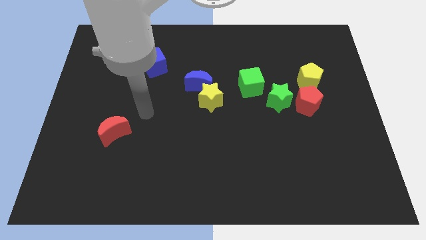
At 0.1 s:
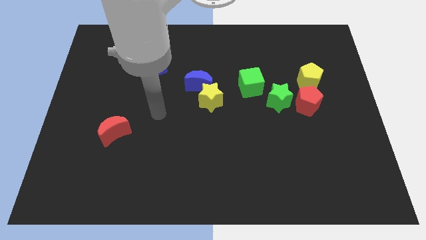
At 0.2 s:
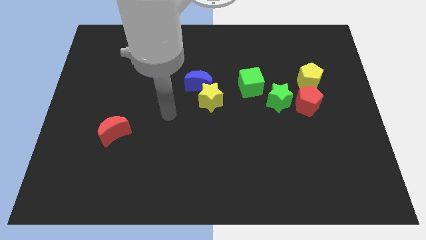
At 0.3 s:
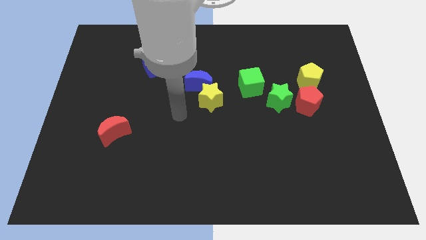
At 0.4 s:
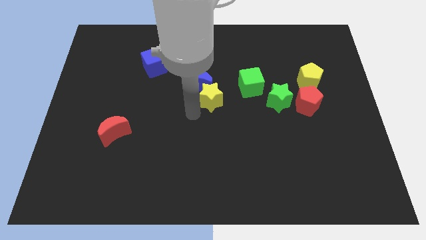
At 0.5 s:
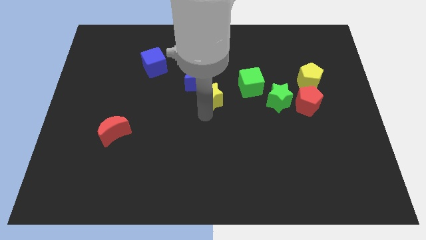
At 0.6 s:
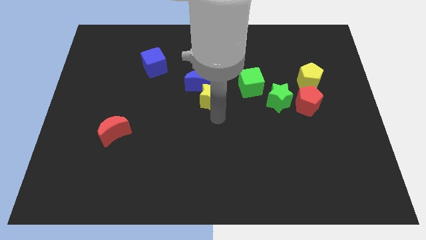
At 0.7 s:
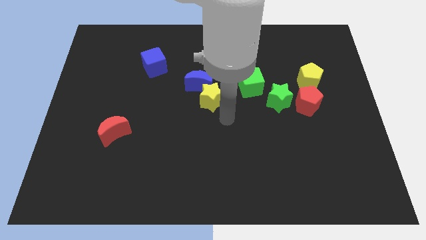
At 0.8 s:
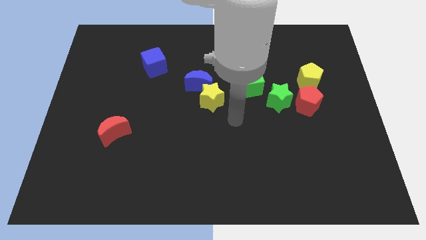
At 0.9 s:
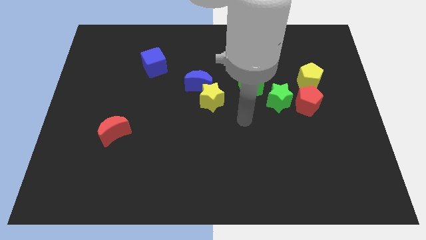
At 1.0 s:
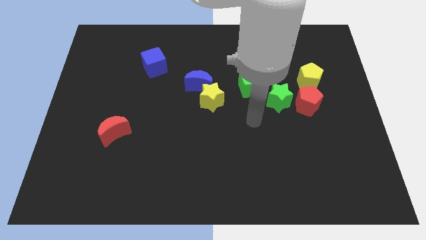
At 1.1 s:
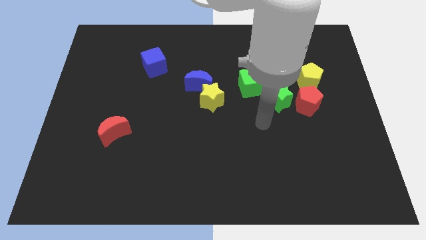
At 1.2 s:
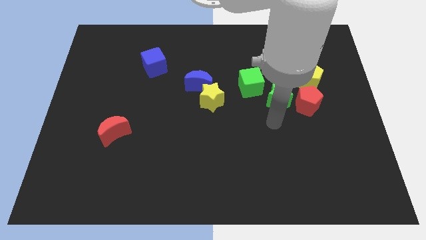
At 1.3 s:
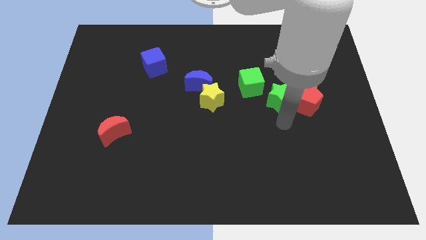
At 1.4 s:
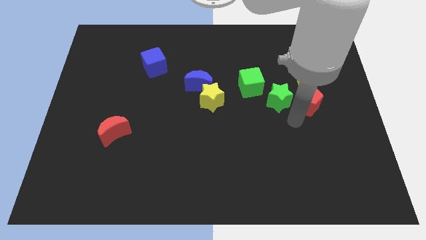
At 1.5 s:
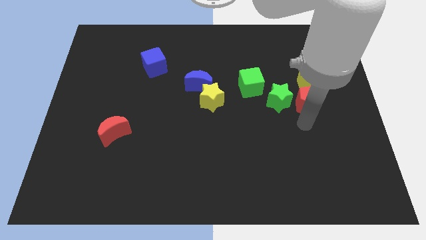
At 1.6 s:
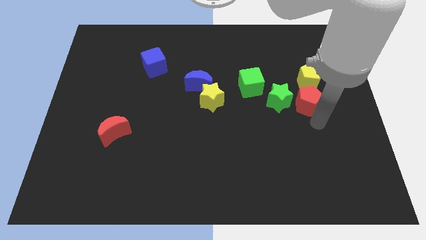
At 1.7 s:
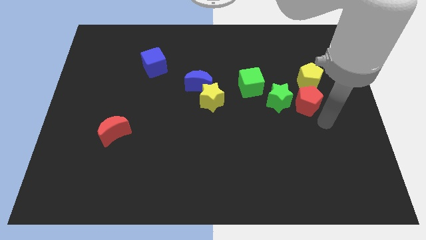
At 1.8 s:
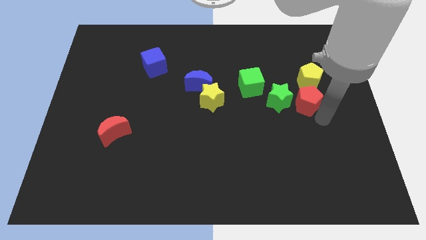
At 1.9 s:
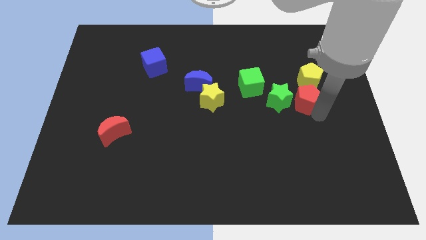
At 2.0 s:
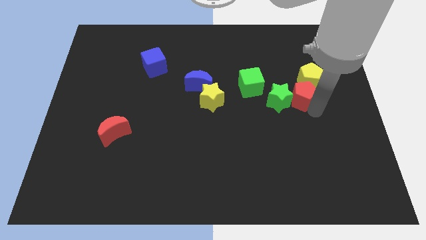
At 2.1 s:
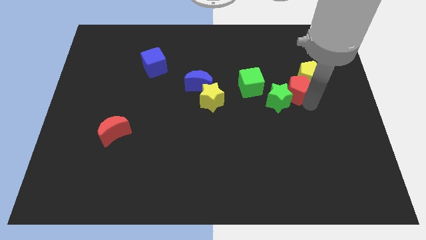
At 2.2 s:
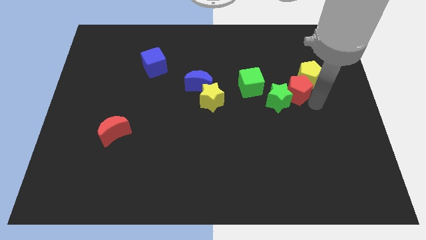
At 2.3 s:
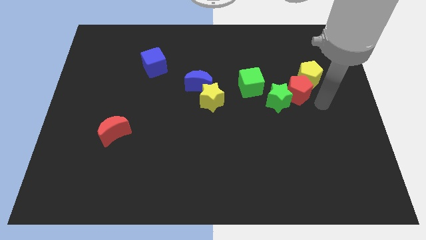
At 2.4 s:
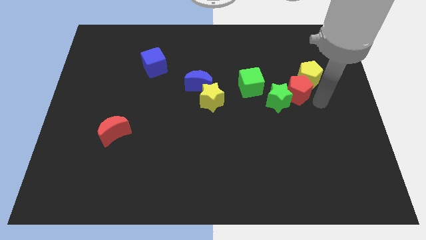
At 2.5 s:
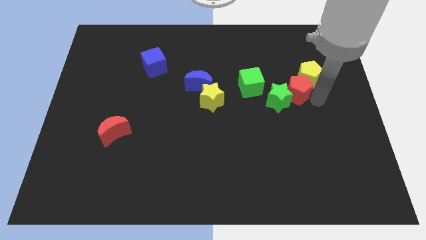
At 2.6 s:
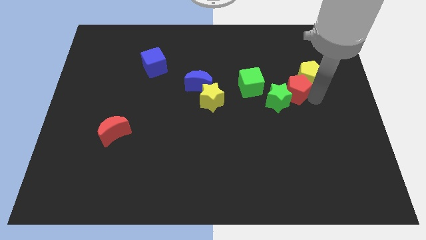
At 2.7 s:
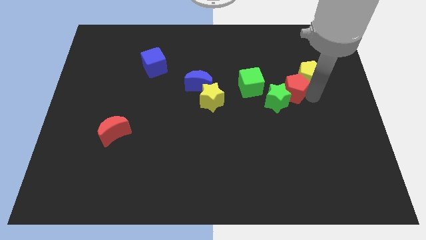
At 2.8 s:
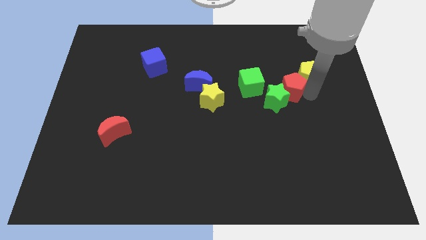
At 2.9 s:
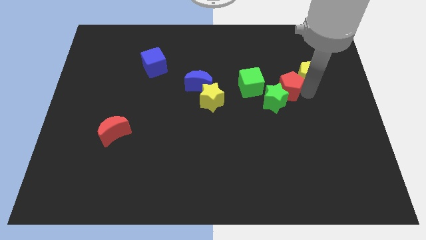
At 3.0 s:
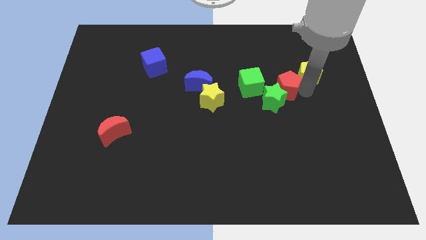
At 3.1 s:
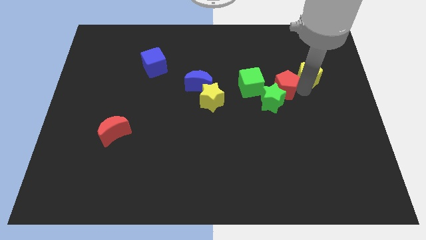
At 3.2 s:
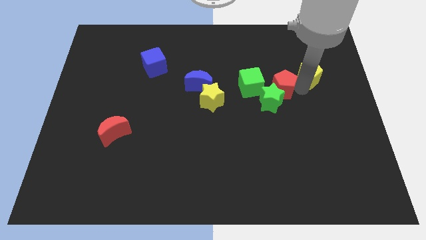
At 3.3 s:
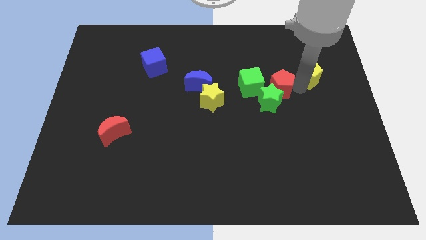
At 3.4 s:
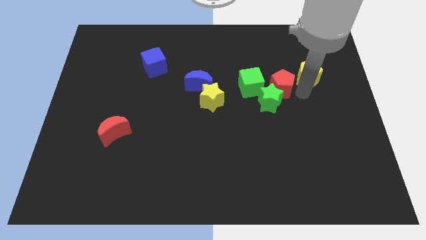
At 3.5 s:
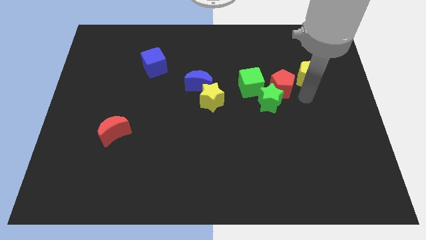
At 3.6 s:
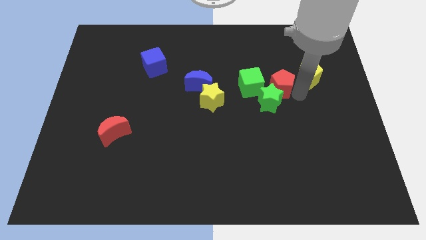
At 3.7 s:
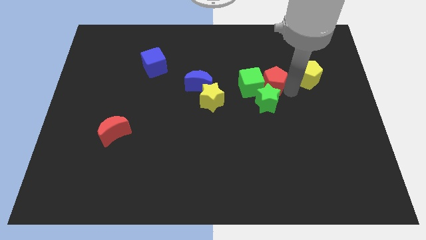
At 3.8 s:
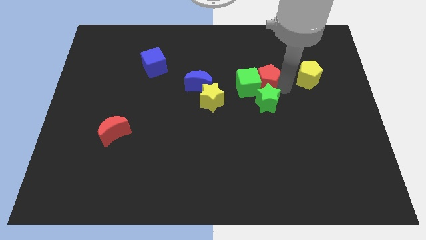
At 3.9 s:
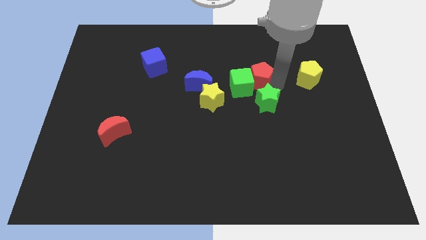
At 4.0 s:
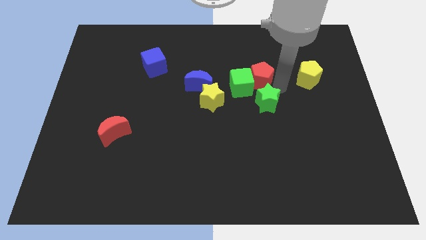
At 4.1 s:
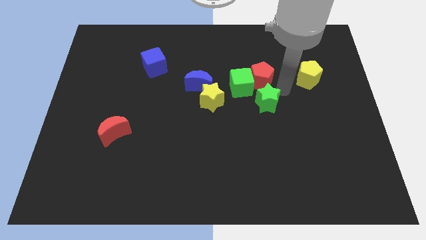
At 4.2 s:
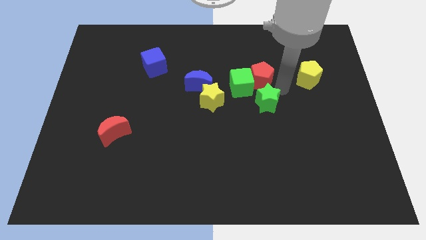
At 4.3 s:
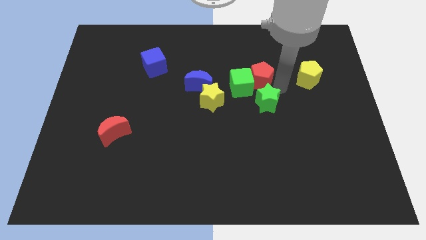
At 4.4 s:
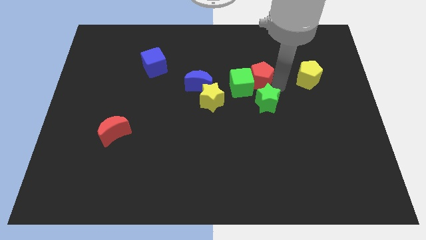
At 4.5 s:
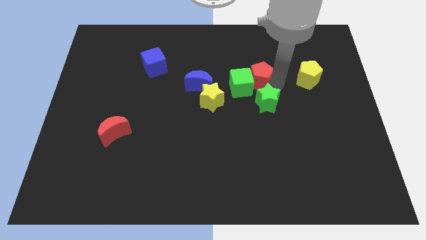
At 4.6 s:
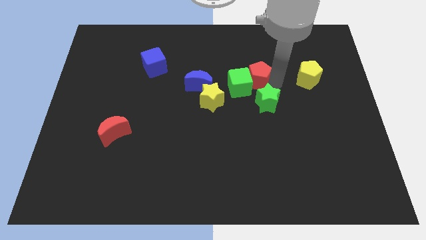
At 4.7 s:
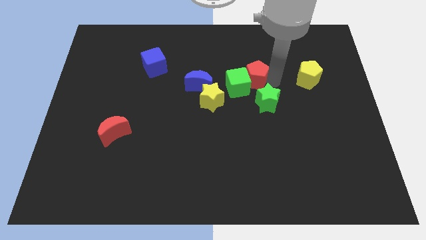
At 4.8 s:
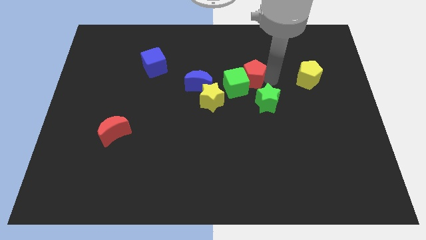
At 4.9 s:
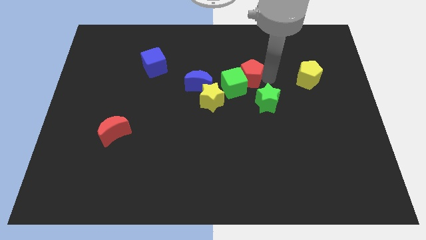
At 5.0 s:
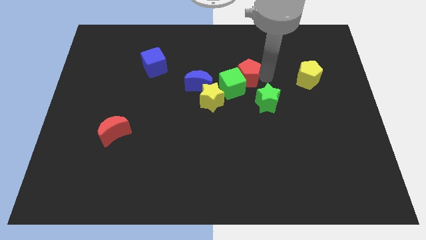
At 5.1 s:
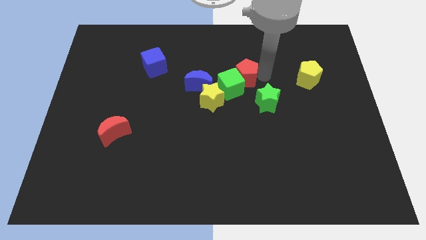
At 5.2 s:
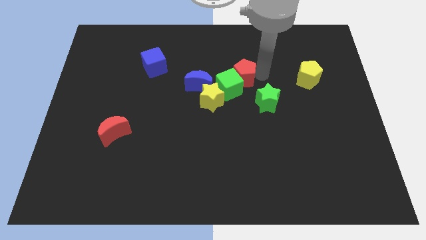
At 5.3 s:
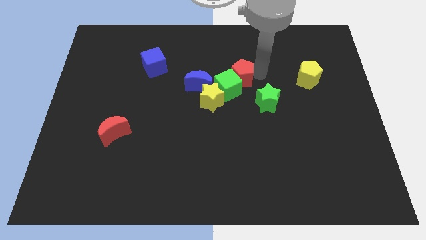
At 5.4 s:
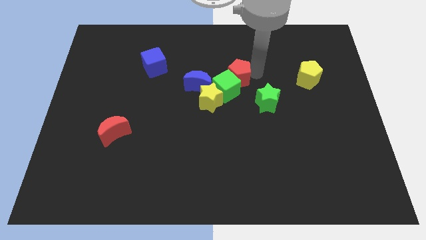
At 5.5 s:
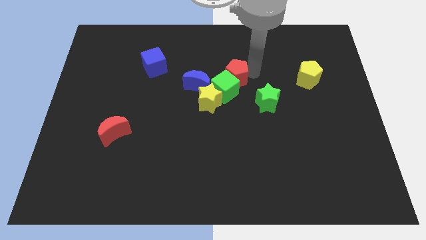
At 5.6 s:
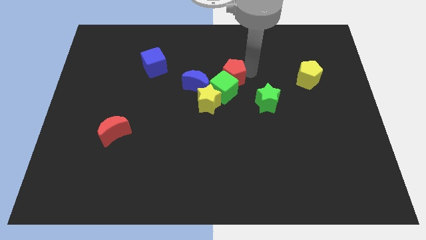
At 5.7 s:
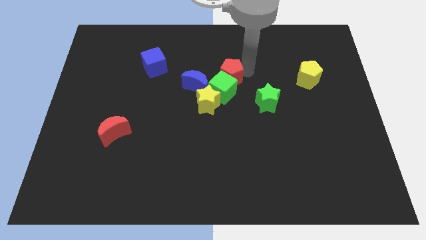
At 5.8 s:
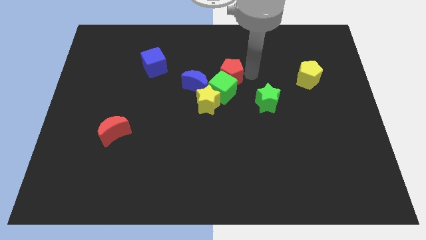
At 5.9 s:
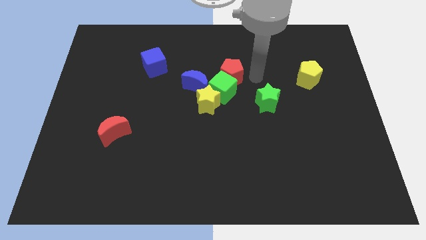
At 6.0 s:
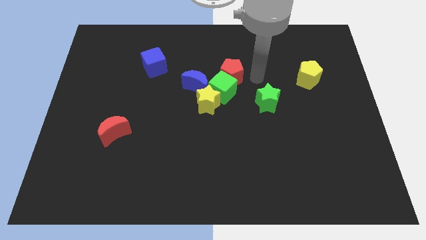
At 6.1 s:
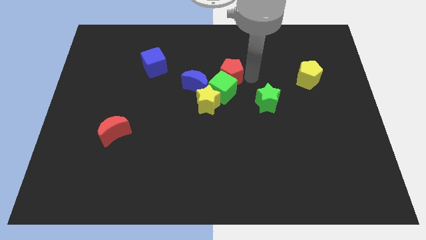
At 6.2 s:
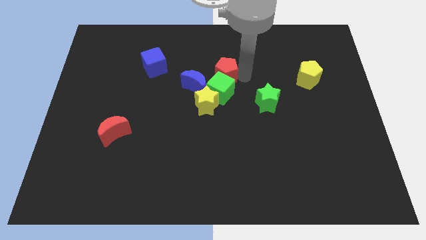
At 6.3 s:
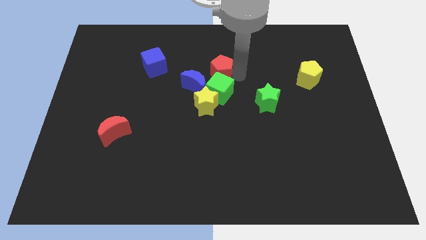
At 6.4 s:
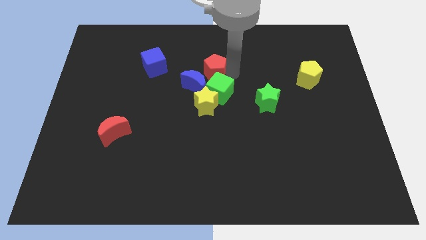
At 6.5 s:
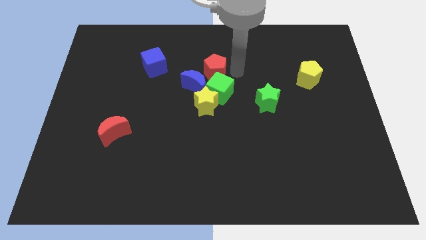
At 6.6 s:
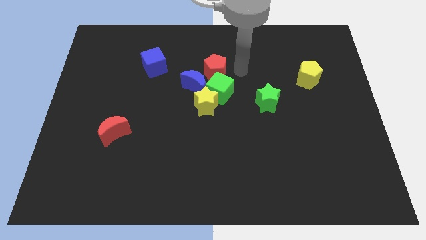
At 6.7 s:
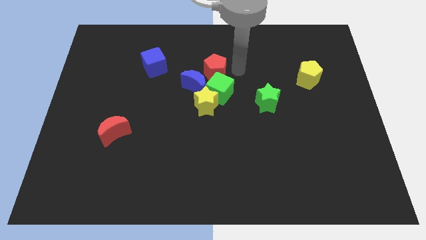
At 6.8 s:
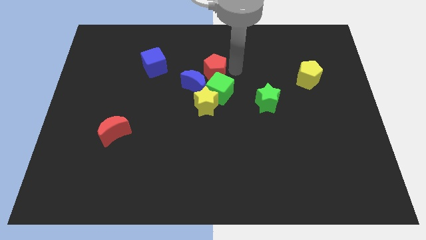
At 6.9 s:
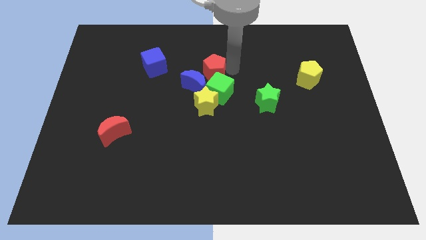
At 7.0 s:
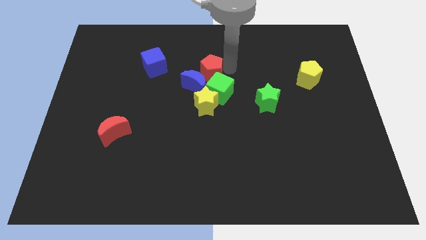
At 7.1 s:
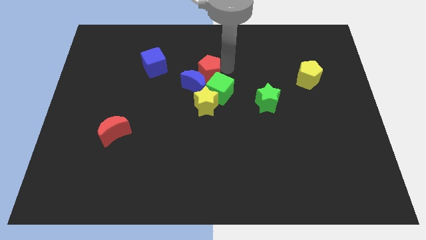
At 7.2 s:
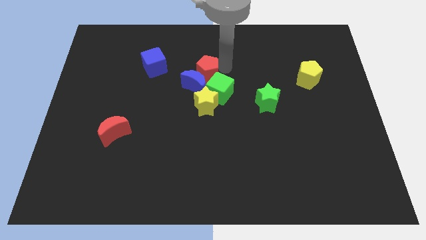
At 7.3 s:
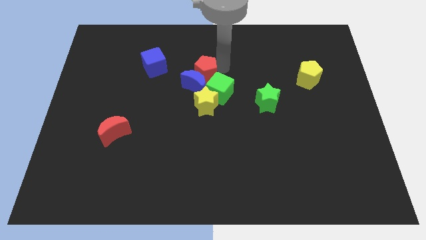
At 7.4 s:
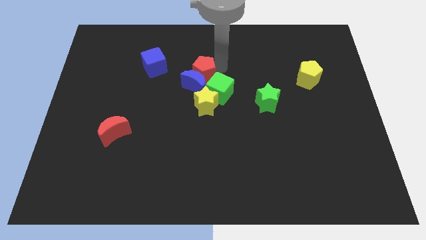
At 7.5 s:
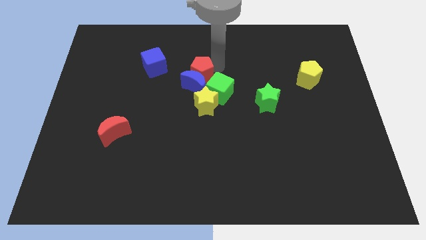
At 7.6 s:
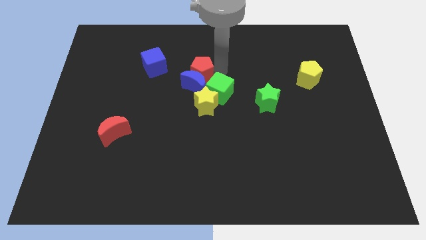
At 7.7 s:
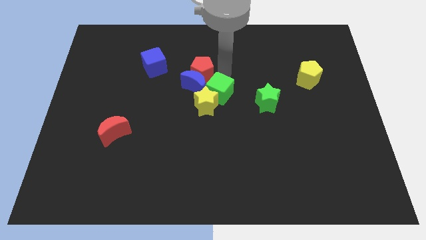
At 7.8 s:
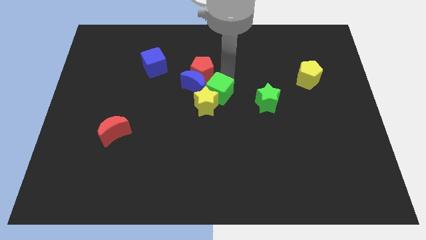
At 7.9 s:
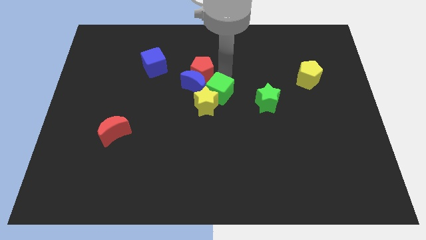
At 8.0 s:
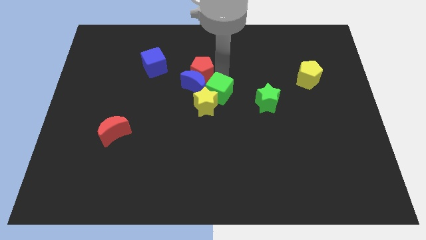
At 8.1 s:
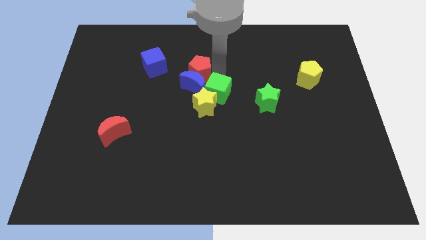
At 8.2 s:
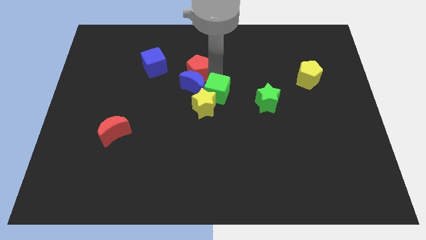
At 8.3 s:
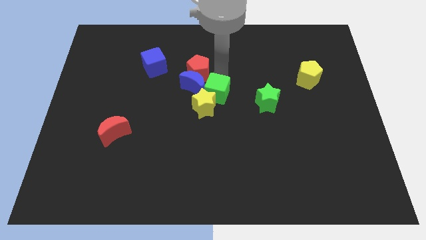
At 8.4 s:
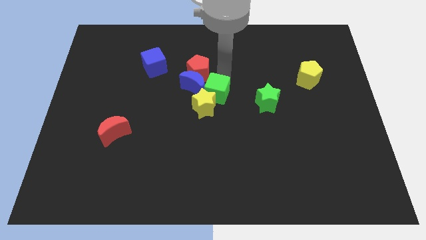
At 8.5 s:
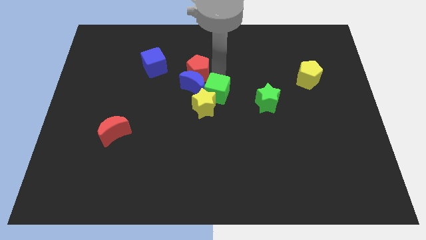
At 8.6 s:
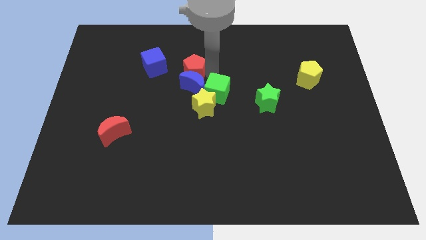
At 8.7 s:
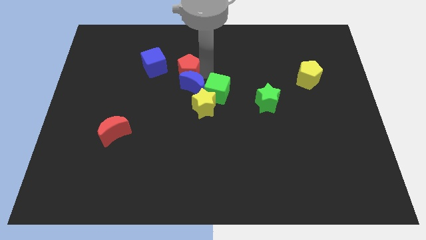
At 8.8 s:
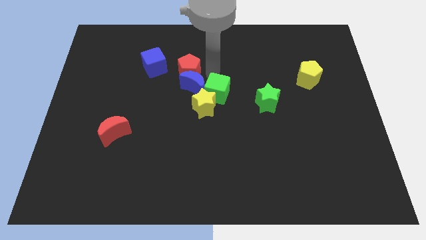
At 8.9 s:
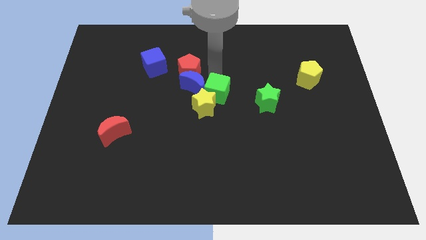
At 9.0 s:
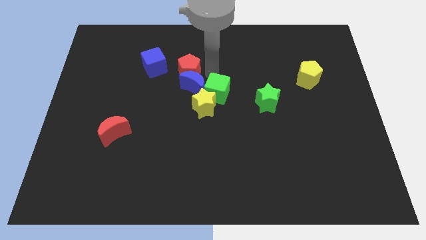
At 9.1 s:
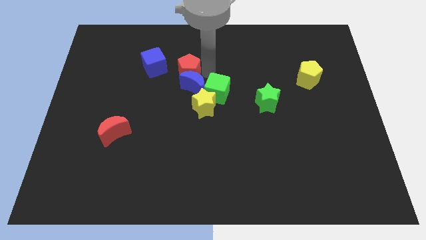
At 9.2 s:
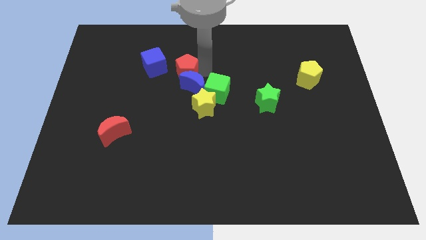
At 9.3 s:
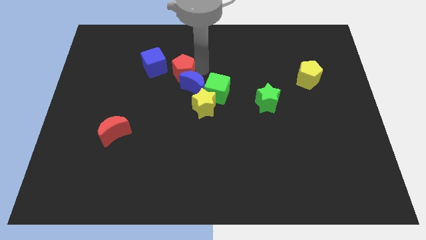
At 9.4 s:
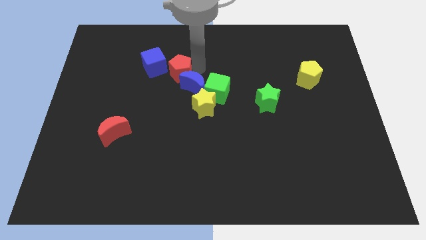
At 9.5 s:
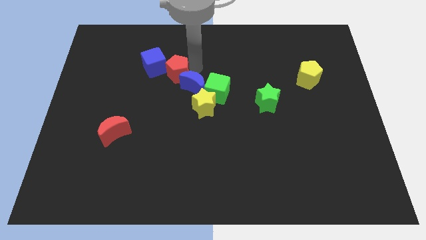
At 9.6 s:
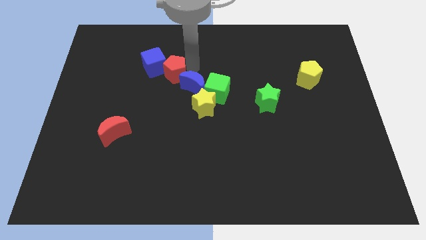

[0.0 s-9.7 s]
slide the red pentagon towards the blue cube
